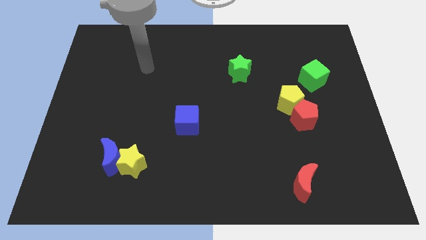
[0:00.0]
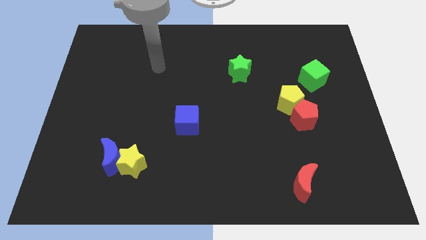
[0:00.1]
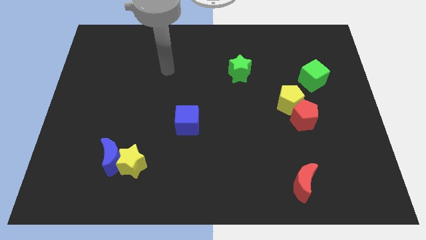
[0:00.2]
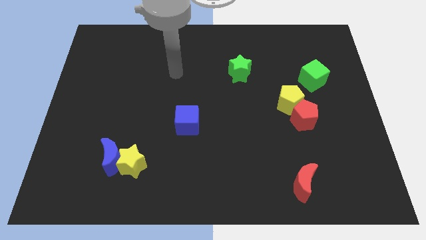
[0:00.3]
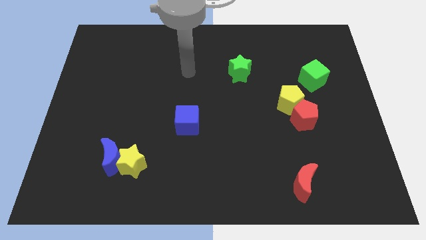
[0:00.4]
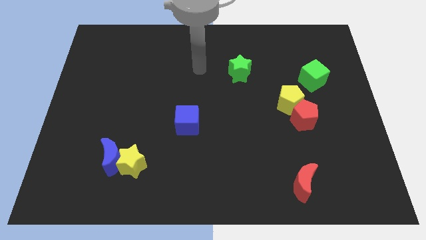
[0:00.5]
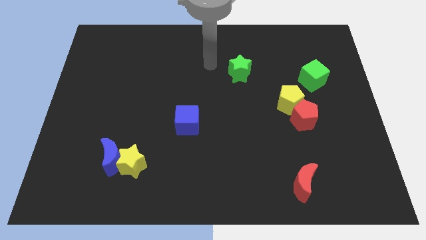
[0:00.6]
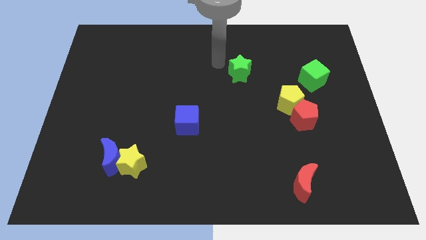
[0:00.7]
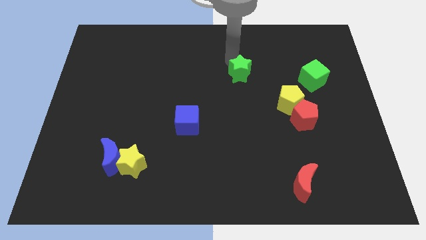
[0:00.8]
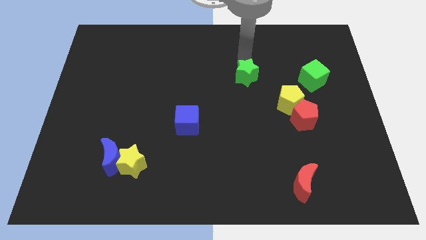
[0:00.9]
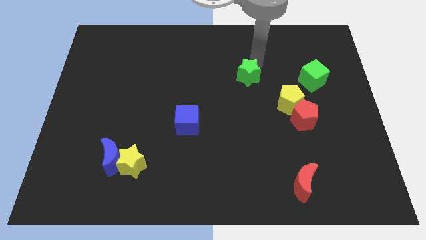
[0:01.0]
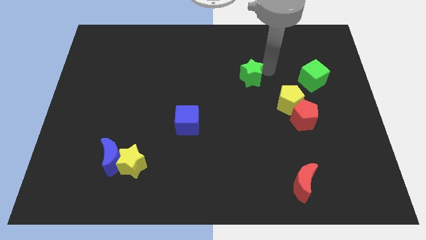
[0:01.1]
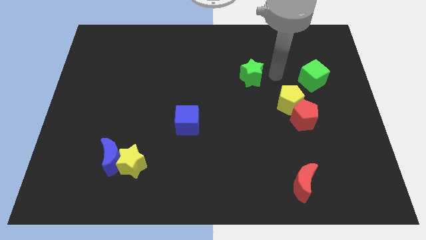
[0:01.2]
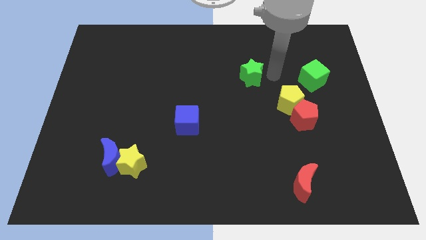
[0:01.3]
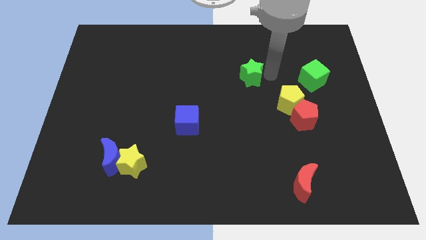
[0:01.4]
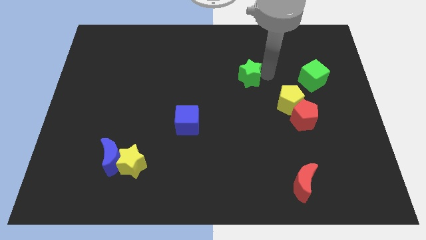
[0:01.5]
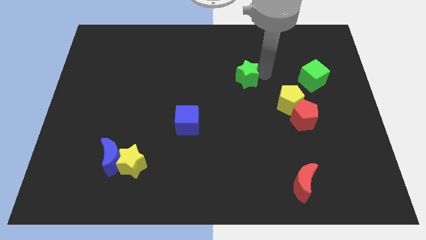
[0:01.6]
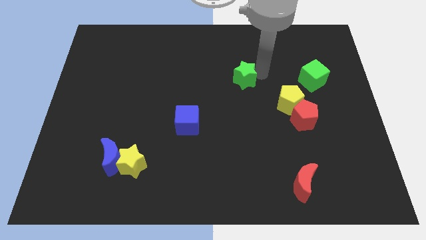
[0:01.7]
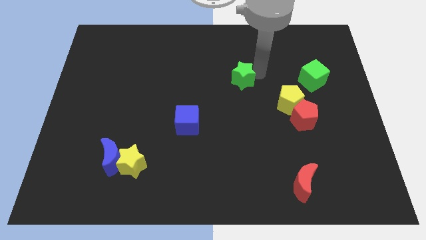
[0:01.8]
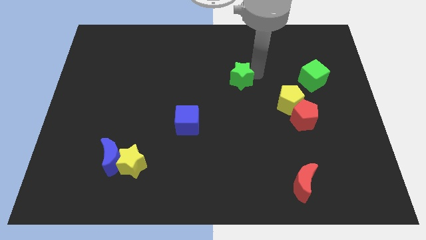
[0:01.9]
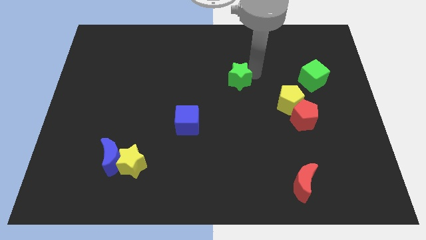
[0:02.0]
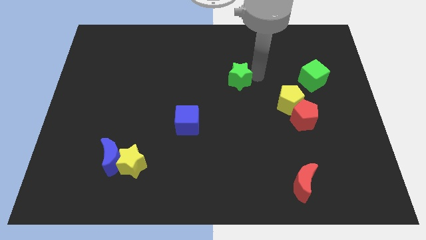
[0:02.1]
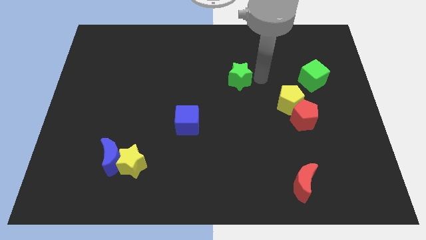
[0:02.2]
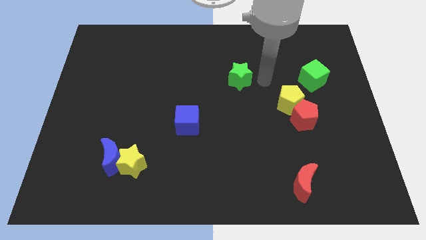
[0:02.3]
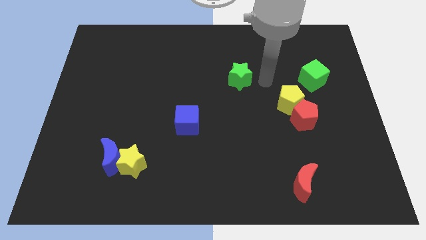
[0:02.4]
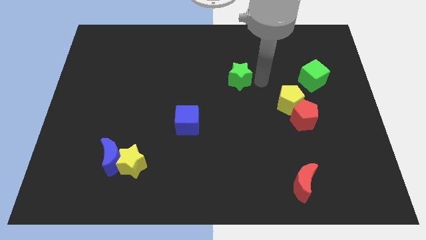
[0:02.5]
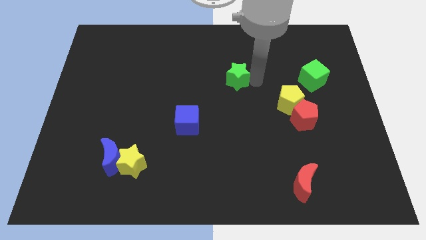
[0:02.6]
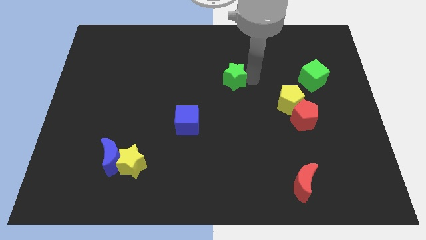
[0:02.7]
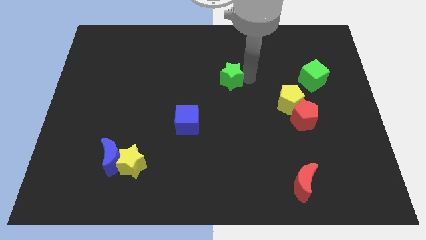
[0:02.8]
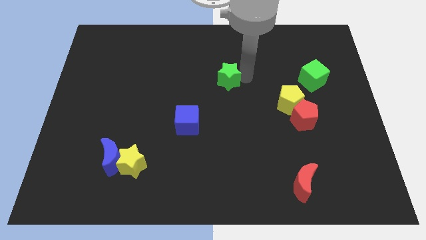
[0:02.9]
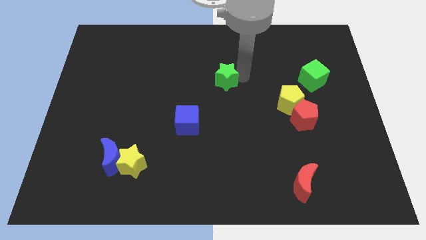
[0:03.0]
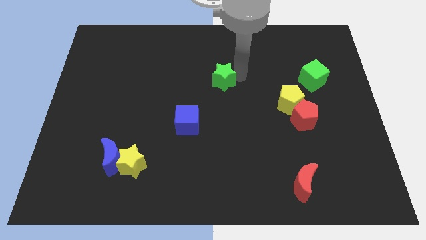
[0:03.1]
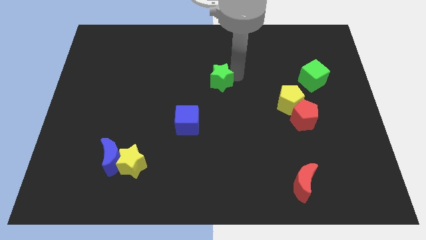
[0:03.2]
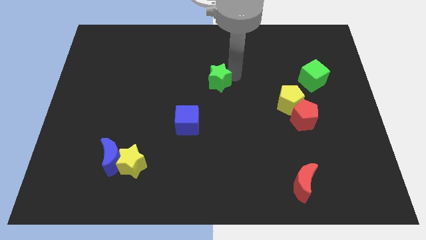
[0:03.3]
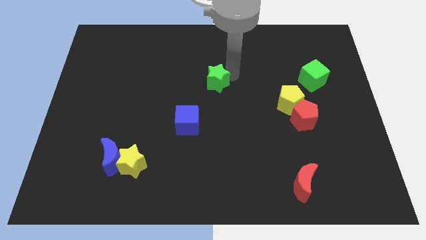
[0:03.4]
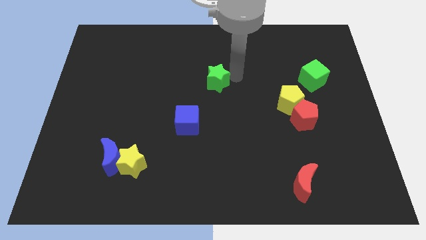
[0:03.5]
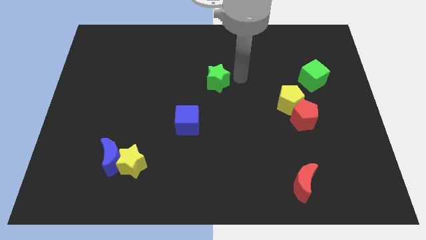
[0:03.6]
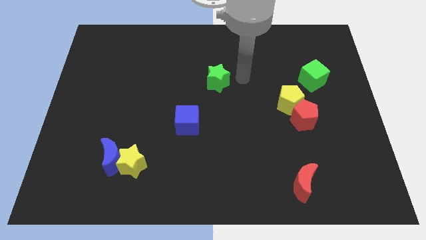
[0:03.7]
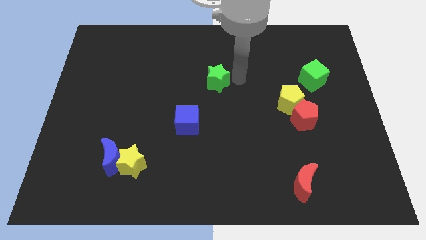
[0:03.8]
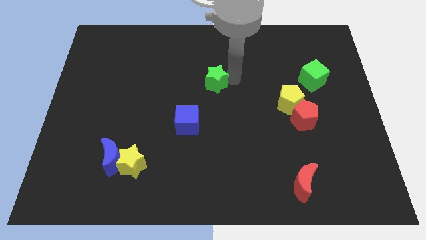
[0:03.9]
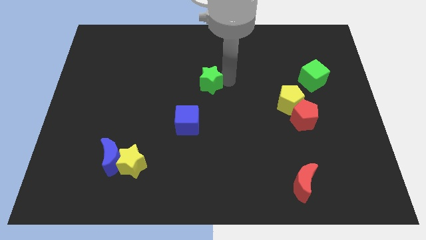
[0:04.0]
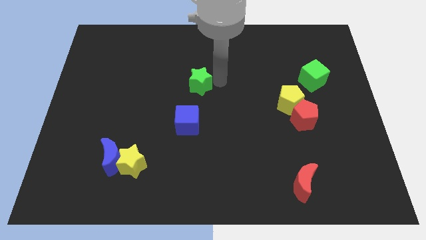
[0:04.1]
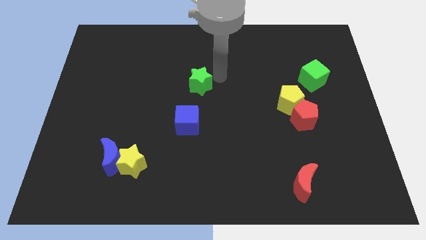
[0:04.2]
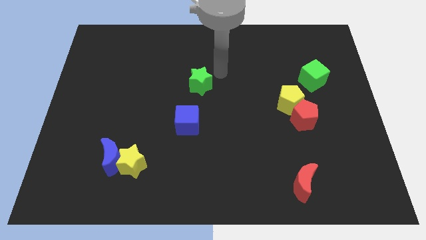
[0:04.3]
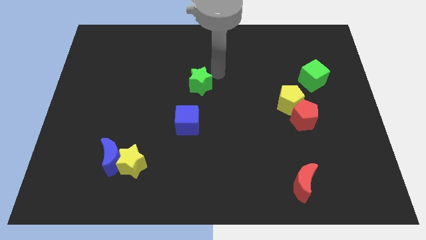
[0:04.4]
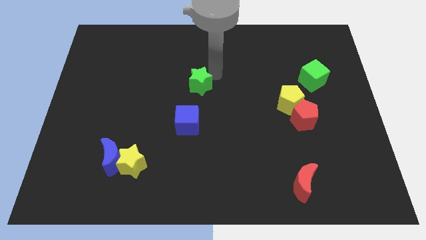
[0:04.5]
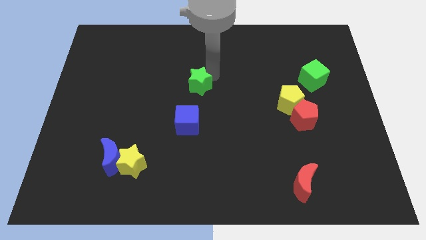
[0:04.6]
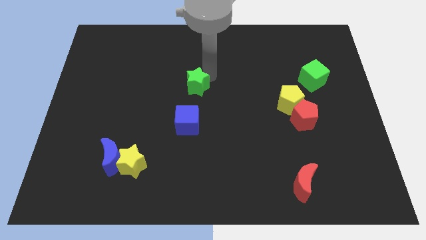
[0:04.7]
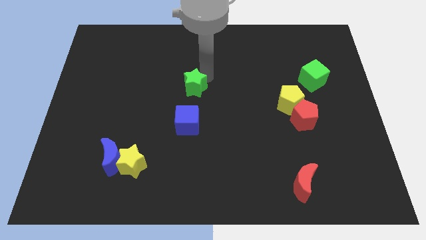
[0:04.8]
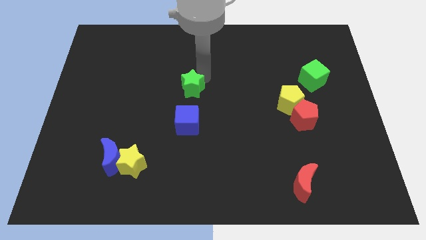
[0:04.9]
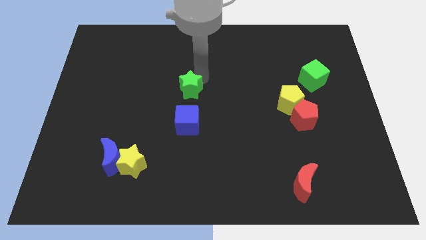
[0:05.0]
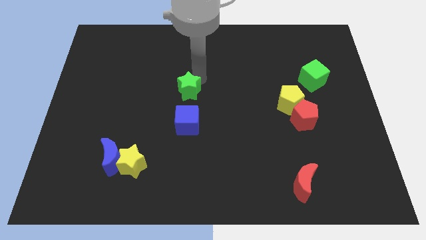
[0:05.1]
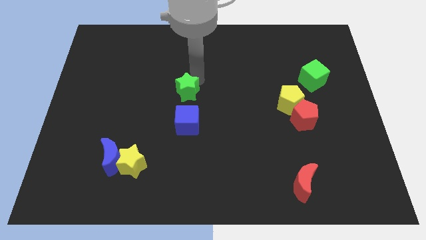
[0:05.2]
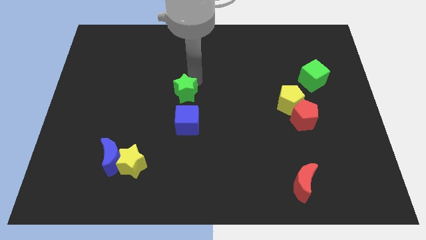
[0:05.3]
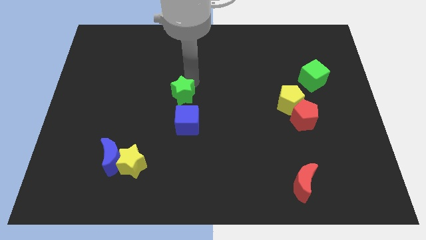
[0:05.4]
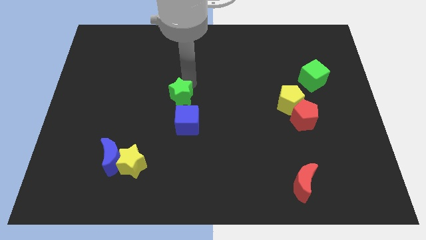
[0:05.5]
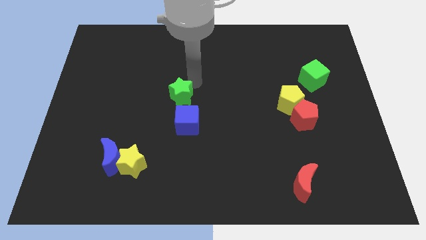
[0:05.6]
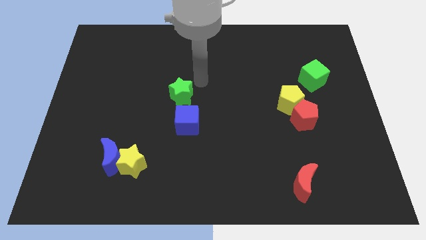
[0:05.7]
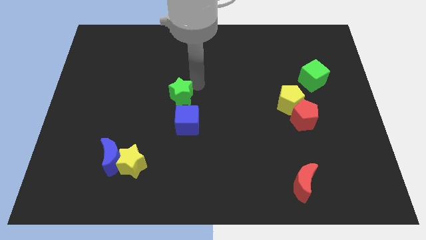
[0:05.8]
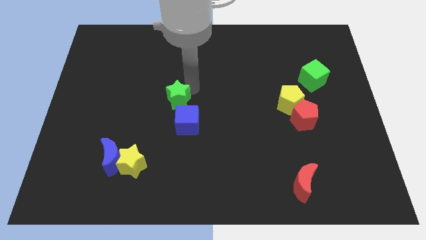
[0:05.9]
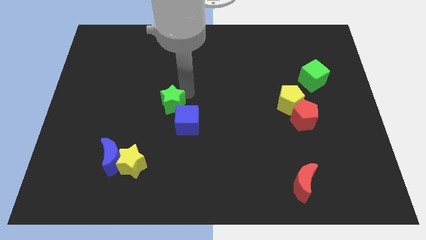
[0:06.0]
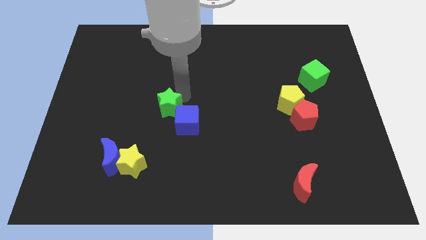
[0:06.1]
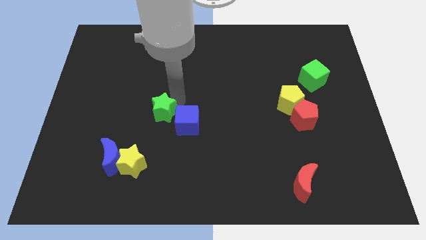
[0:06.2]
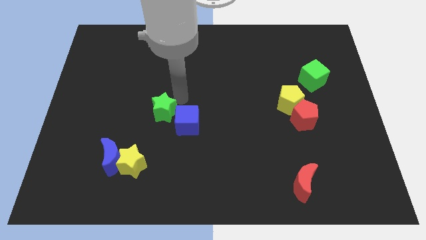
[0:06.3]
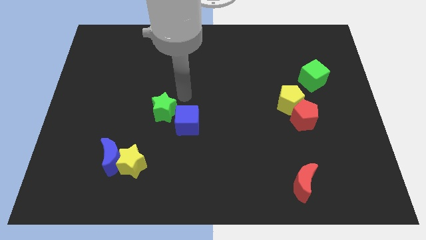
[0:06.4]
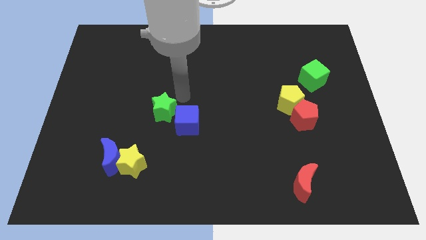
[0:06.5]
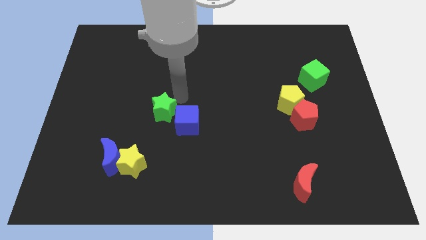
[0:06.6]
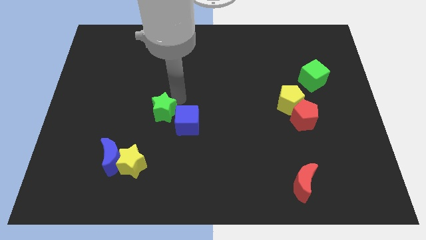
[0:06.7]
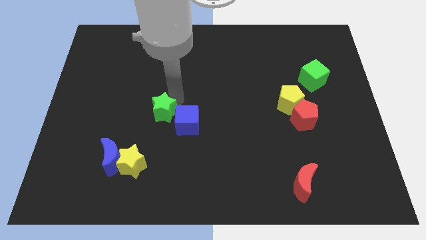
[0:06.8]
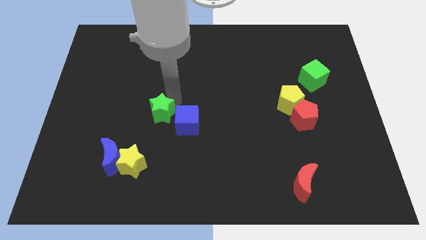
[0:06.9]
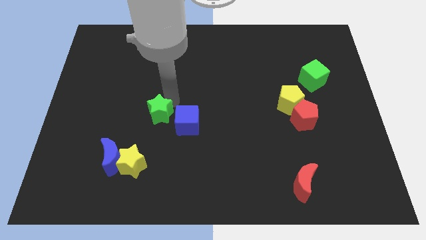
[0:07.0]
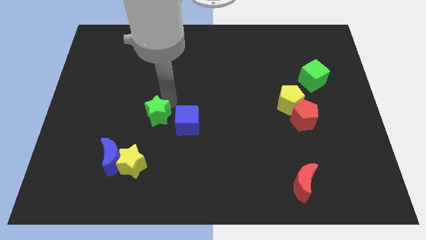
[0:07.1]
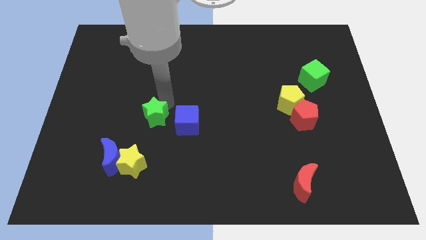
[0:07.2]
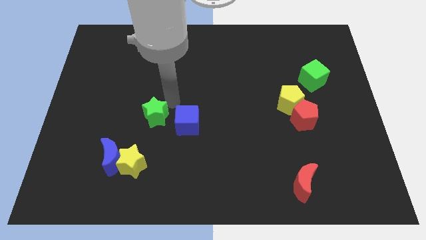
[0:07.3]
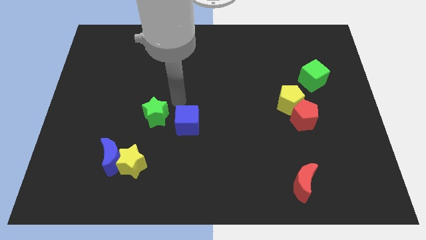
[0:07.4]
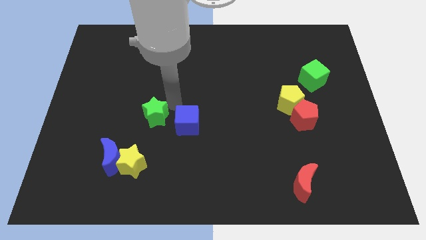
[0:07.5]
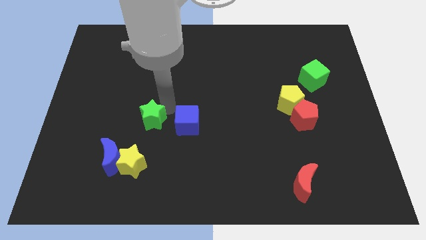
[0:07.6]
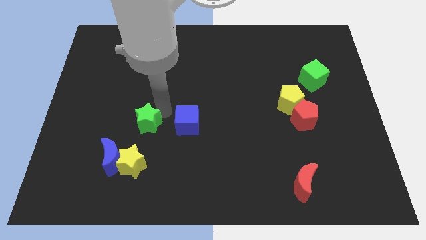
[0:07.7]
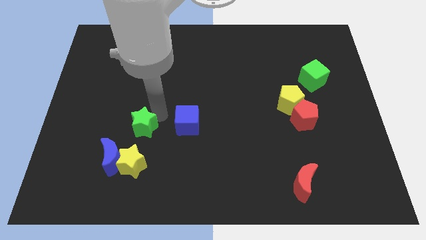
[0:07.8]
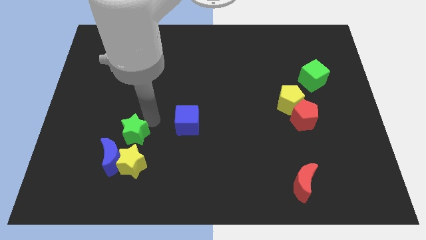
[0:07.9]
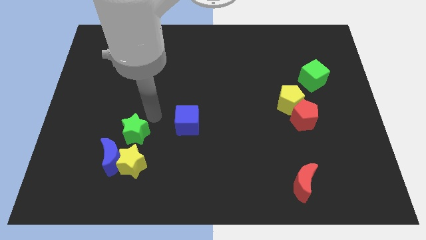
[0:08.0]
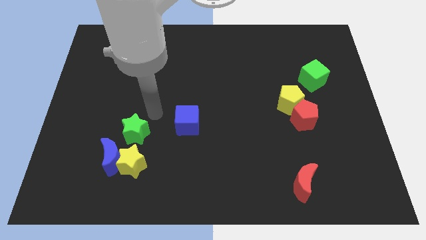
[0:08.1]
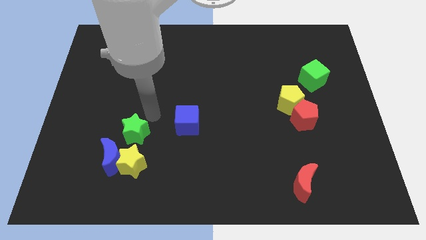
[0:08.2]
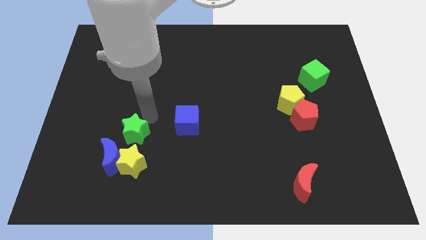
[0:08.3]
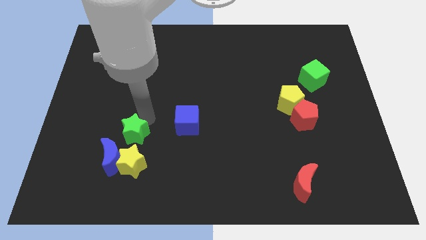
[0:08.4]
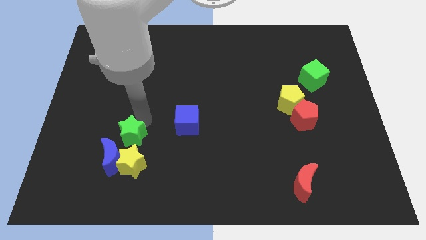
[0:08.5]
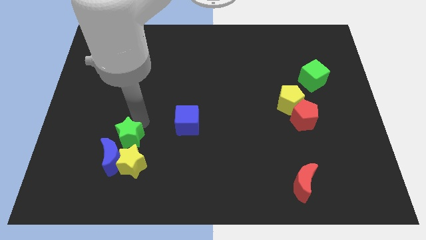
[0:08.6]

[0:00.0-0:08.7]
move the green star to the blue moon
